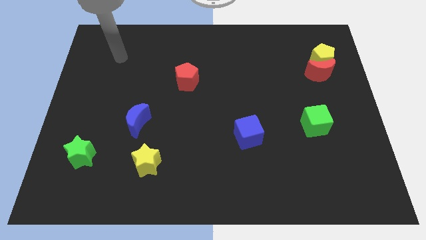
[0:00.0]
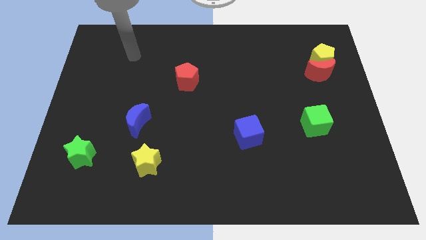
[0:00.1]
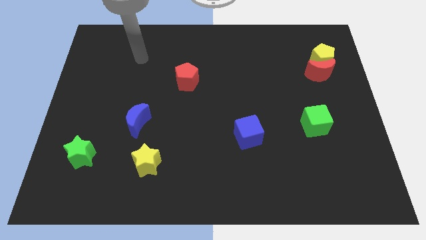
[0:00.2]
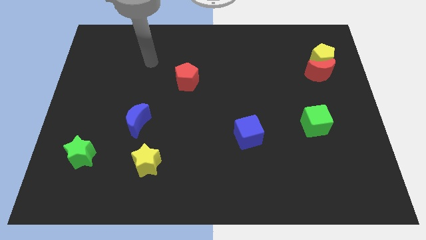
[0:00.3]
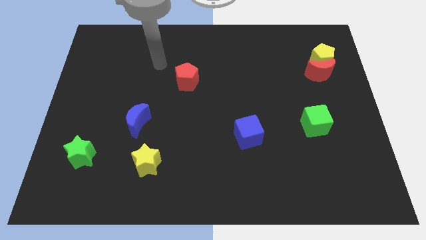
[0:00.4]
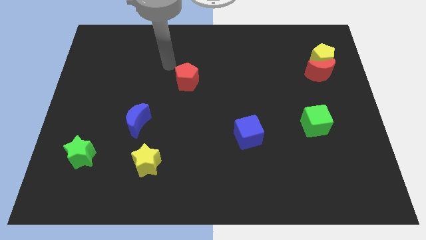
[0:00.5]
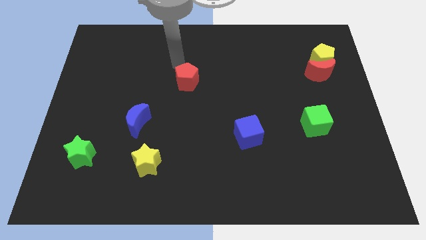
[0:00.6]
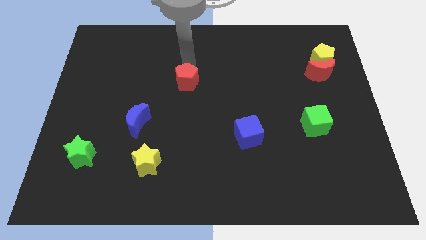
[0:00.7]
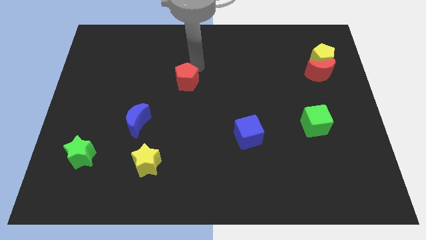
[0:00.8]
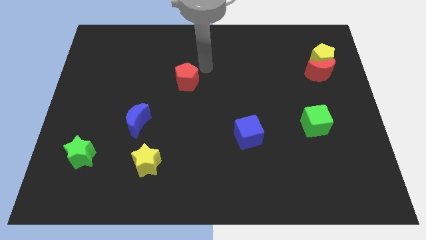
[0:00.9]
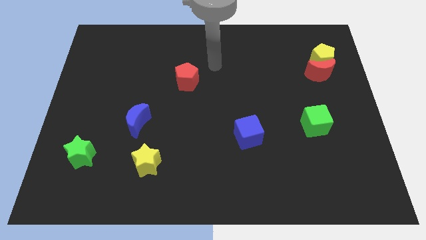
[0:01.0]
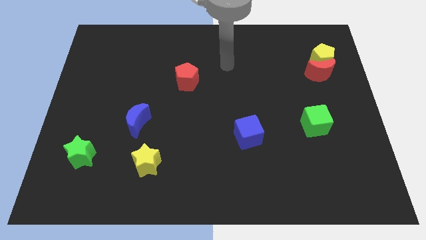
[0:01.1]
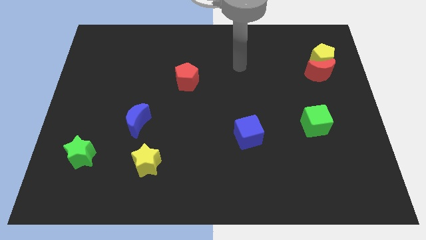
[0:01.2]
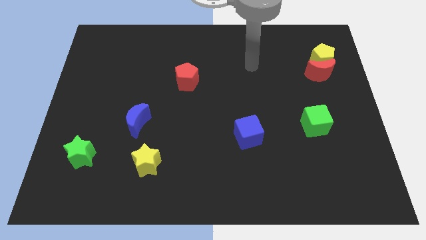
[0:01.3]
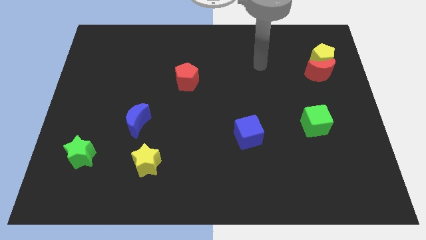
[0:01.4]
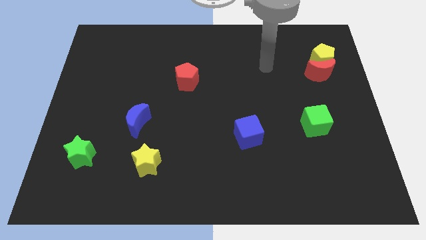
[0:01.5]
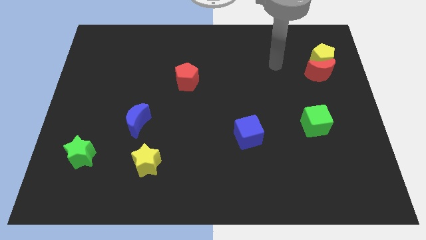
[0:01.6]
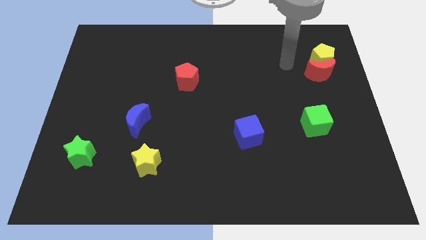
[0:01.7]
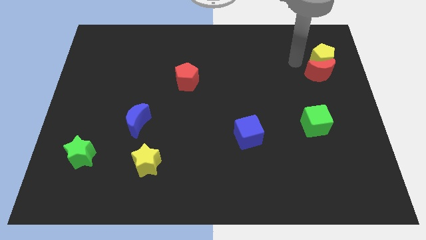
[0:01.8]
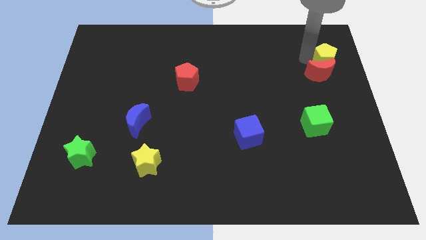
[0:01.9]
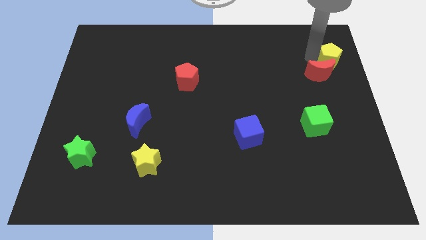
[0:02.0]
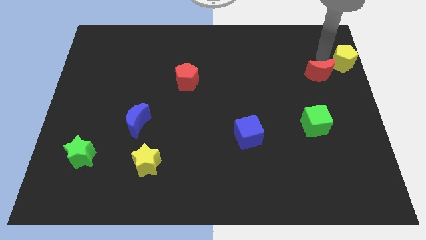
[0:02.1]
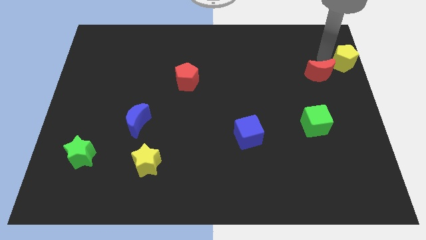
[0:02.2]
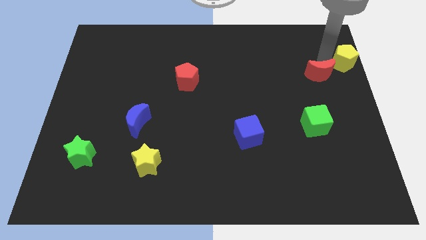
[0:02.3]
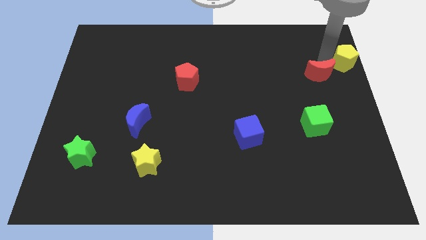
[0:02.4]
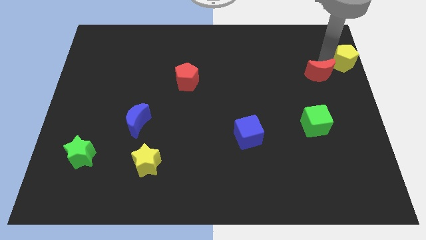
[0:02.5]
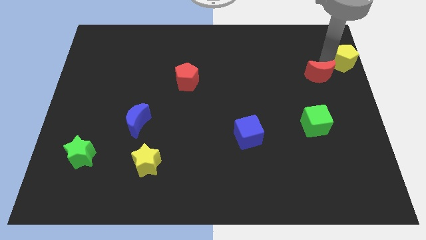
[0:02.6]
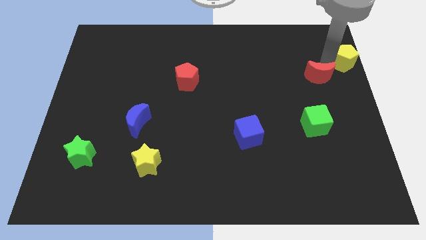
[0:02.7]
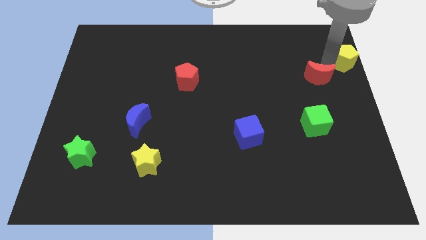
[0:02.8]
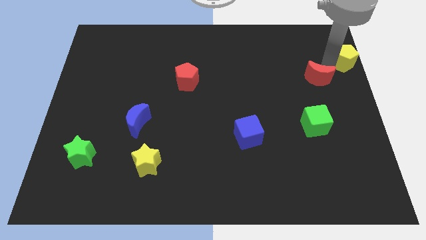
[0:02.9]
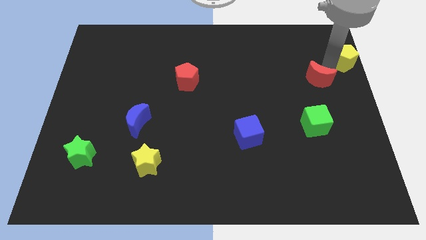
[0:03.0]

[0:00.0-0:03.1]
move the red moon away from the yellow pentagon

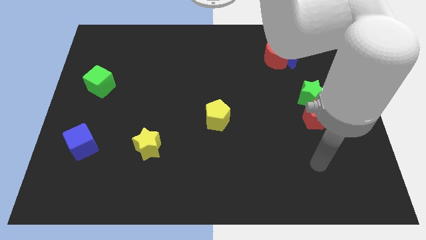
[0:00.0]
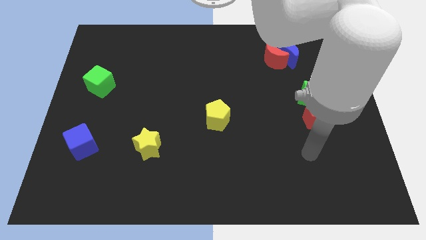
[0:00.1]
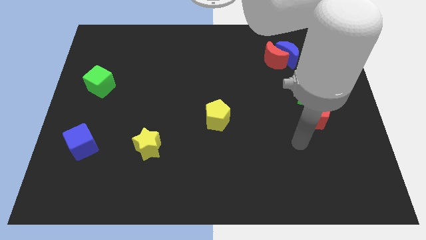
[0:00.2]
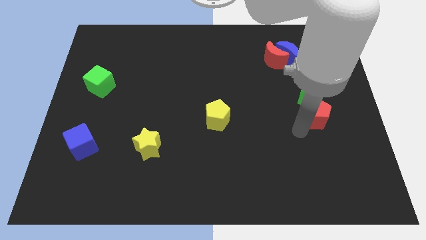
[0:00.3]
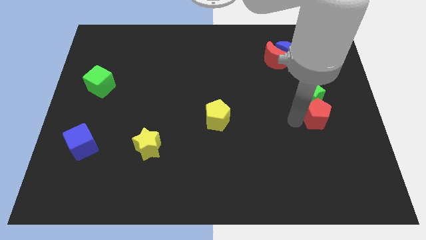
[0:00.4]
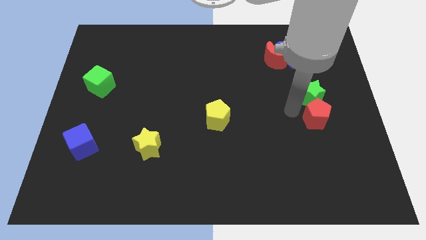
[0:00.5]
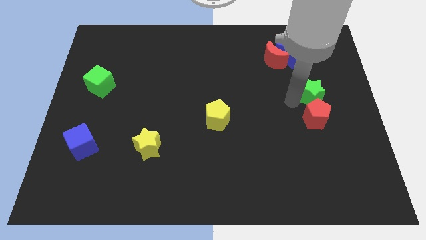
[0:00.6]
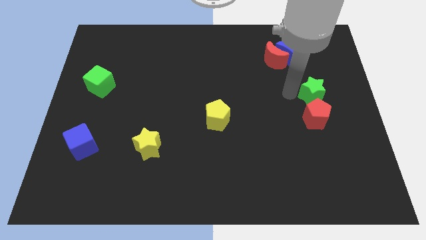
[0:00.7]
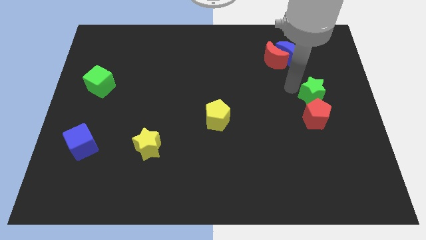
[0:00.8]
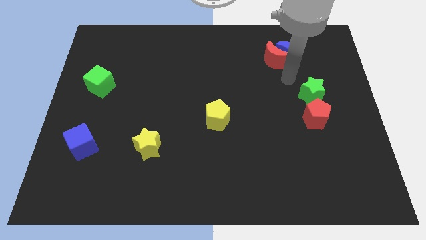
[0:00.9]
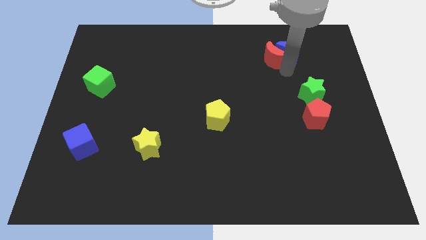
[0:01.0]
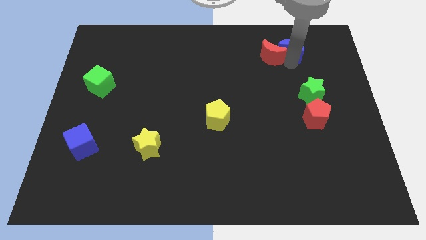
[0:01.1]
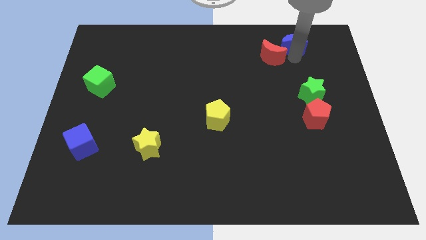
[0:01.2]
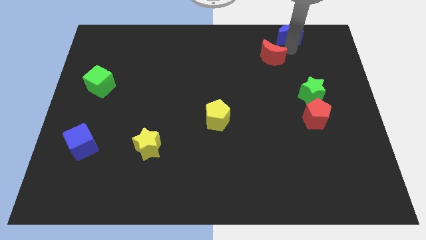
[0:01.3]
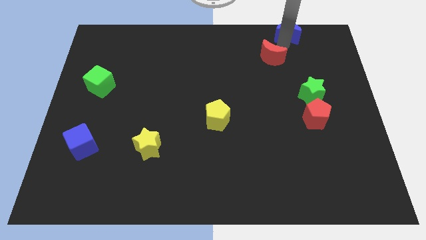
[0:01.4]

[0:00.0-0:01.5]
separate the red moon from the blue moon

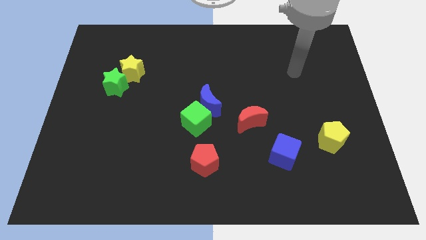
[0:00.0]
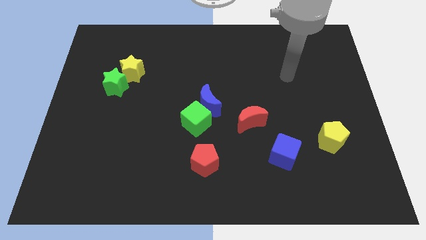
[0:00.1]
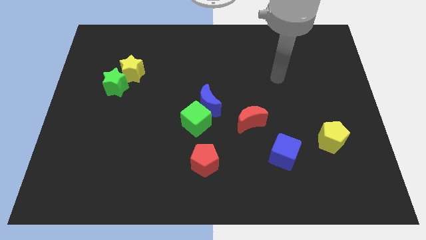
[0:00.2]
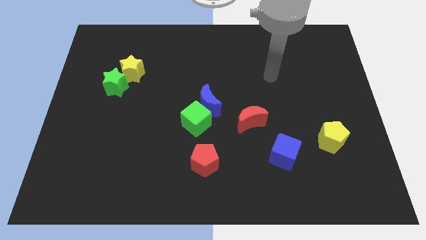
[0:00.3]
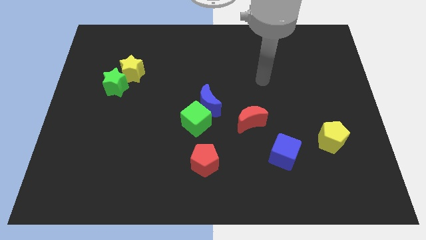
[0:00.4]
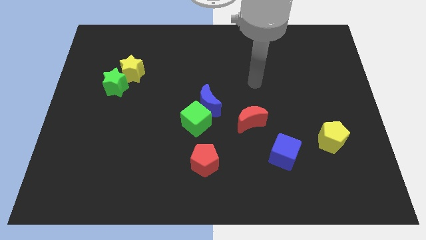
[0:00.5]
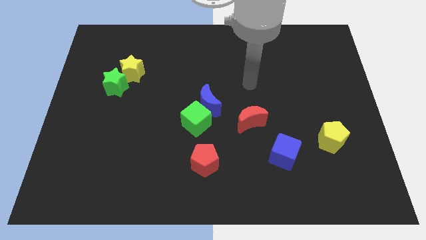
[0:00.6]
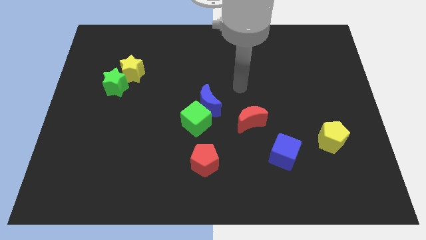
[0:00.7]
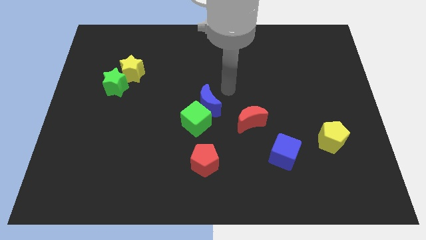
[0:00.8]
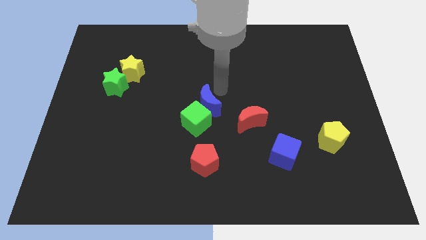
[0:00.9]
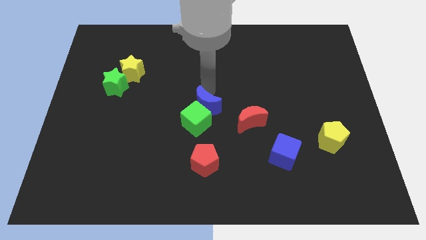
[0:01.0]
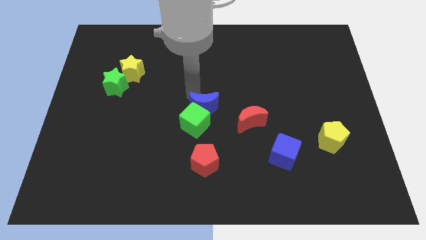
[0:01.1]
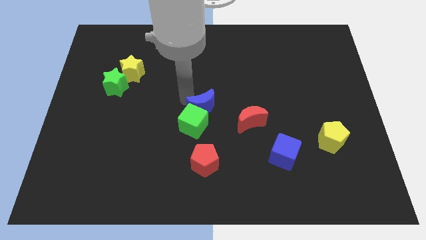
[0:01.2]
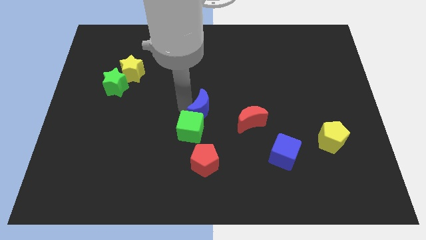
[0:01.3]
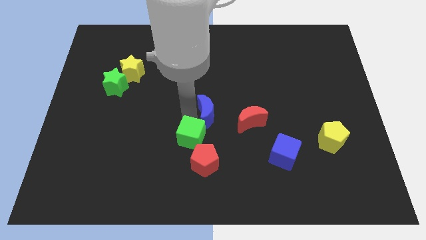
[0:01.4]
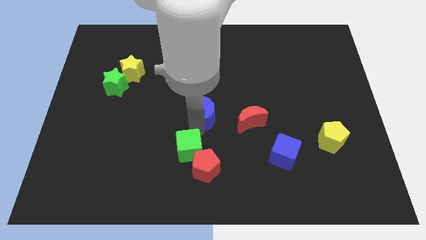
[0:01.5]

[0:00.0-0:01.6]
move the blue moon away from the green cube

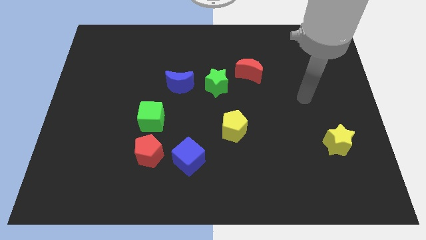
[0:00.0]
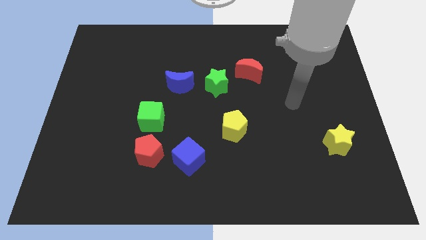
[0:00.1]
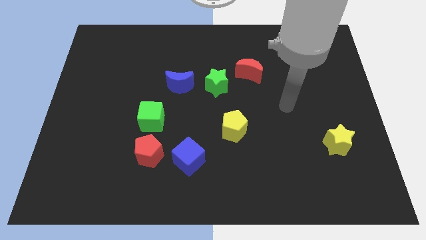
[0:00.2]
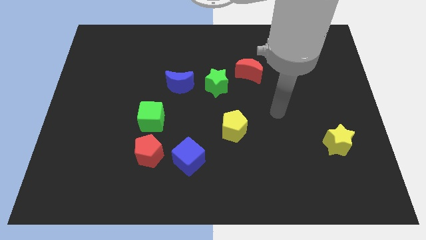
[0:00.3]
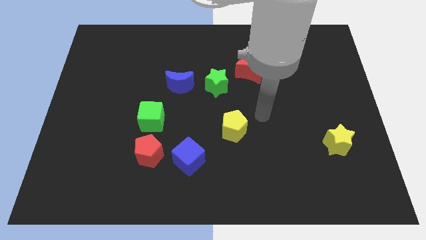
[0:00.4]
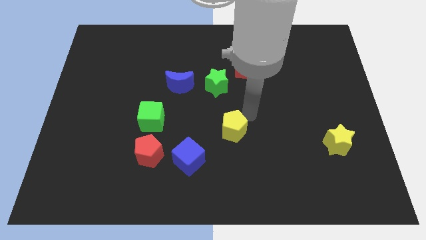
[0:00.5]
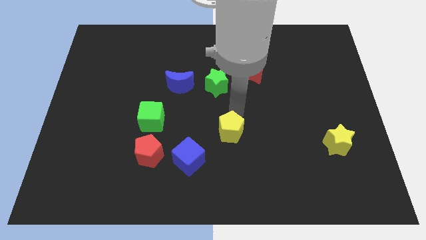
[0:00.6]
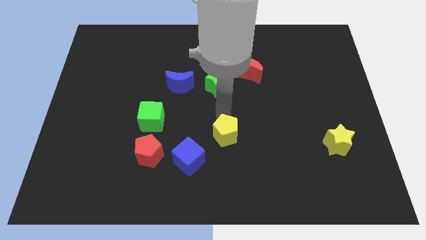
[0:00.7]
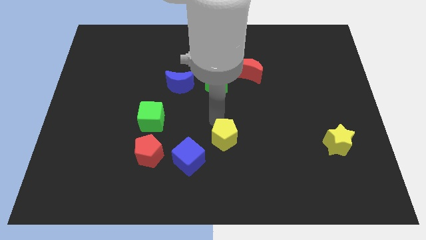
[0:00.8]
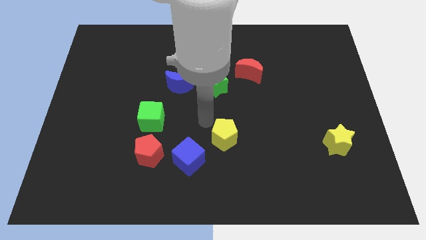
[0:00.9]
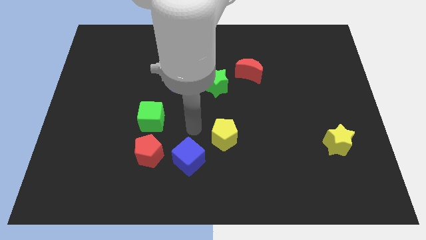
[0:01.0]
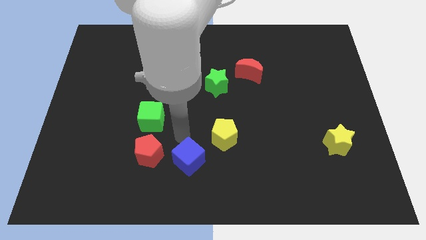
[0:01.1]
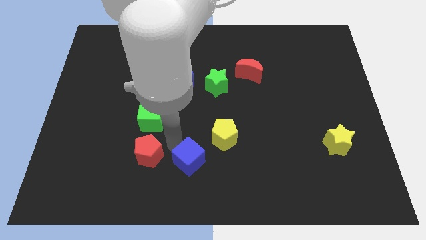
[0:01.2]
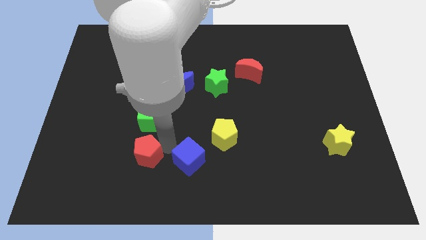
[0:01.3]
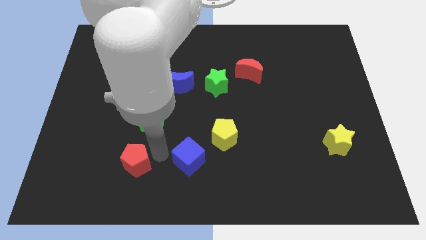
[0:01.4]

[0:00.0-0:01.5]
move the blue cube away from the red pentagon

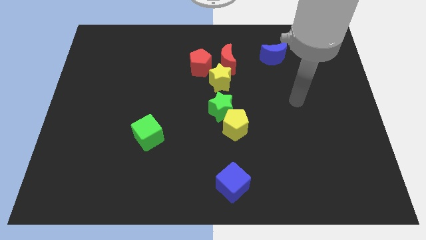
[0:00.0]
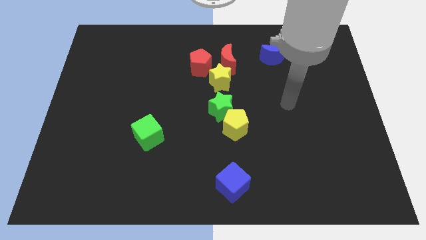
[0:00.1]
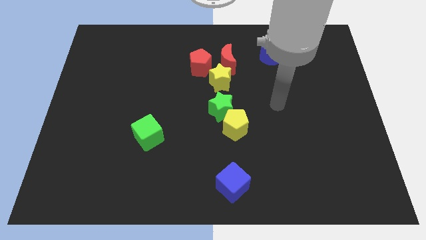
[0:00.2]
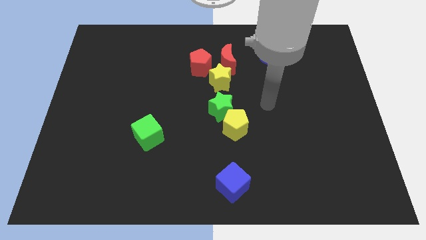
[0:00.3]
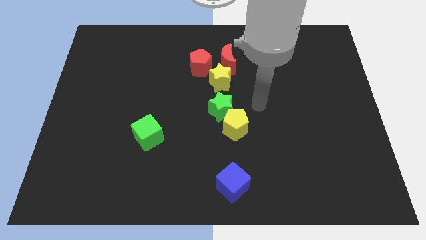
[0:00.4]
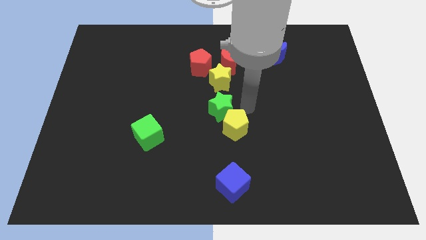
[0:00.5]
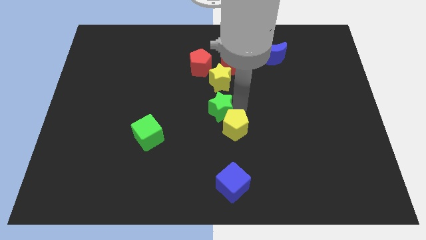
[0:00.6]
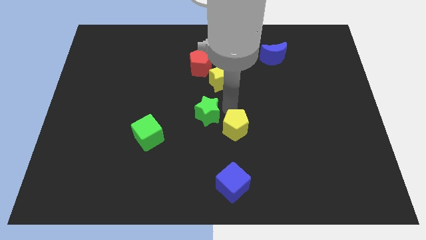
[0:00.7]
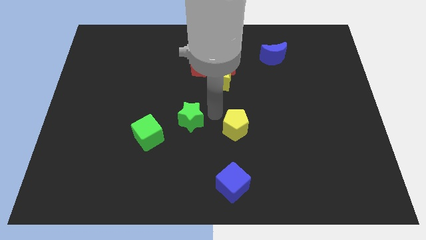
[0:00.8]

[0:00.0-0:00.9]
move the yellow pentagon away from the green star

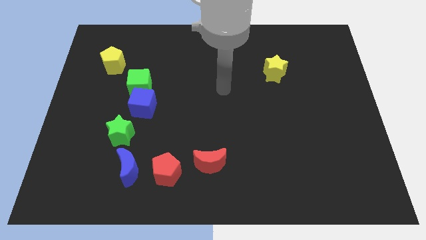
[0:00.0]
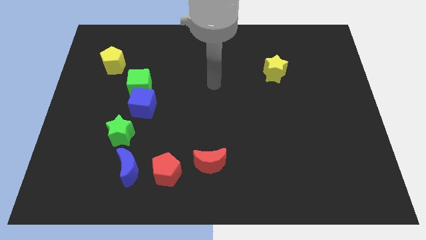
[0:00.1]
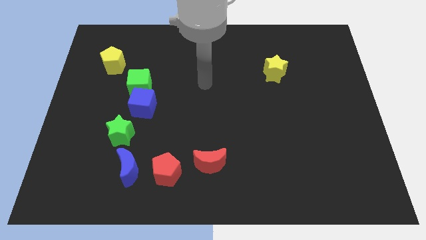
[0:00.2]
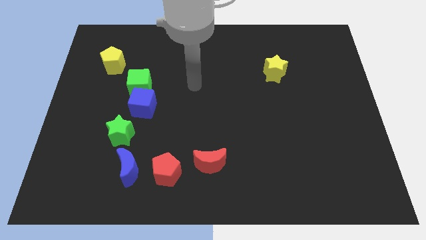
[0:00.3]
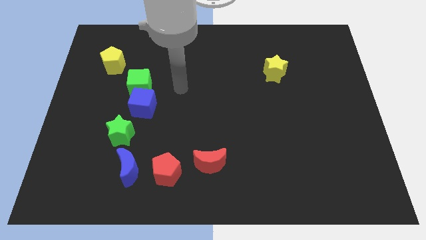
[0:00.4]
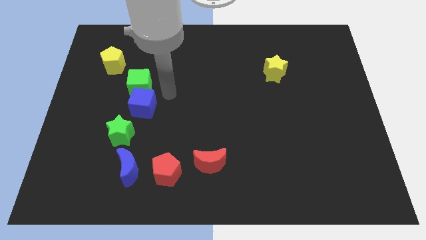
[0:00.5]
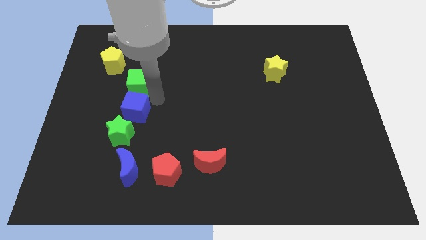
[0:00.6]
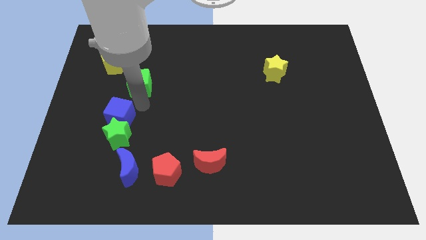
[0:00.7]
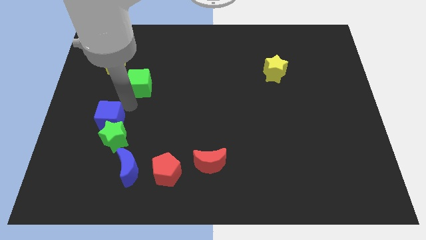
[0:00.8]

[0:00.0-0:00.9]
separate the green cube from the blue cube
